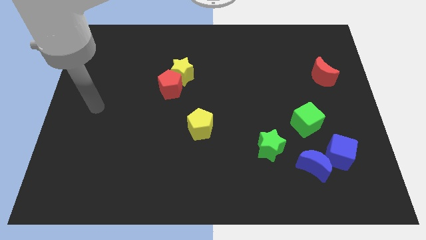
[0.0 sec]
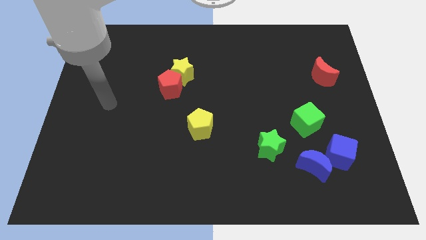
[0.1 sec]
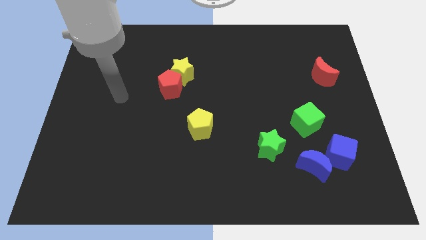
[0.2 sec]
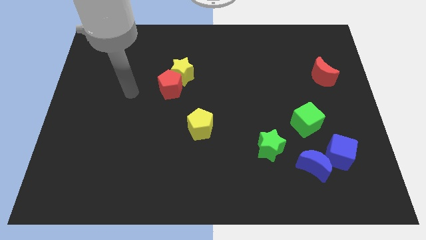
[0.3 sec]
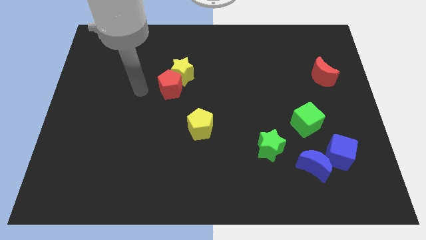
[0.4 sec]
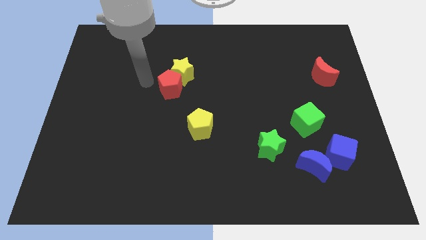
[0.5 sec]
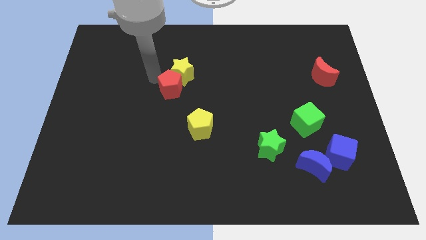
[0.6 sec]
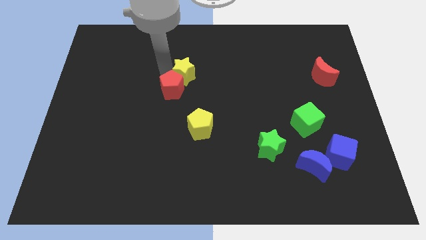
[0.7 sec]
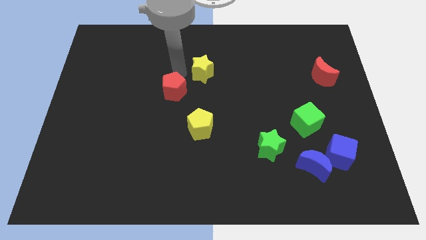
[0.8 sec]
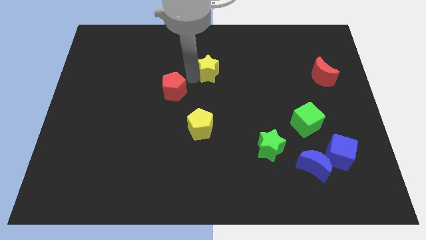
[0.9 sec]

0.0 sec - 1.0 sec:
pull the red pentagon apart from the yellow star

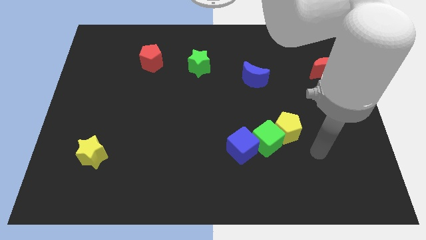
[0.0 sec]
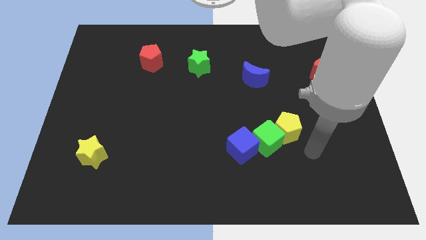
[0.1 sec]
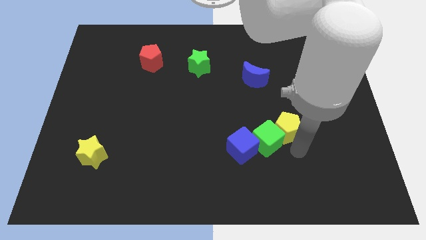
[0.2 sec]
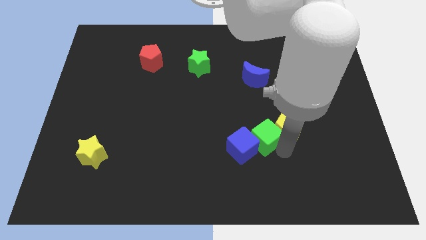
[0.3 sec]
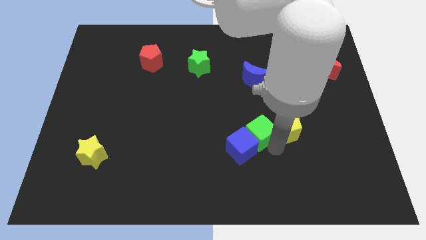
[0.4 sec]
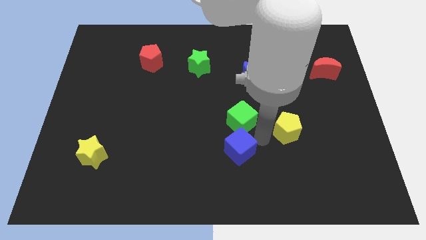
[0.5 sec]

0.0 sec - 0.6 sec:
move the yellow pentagon away from the green cube

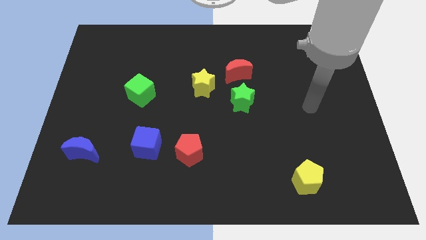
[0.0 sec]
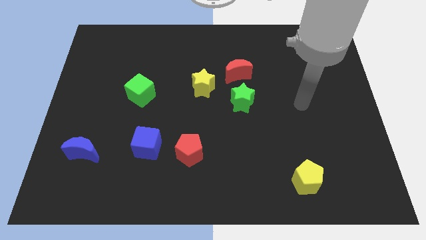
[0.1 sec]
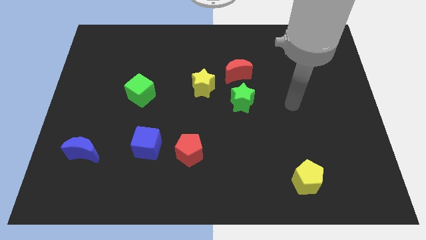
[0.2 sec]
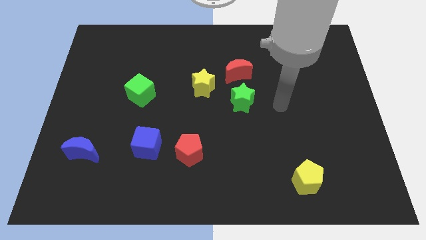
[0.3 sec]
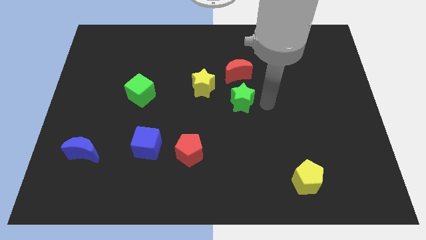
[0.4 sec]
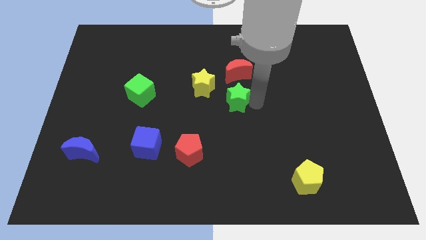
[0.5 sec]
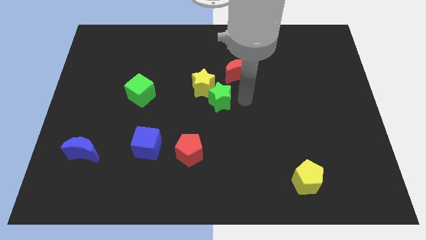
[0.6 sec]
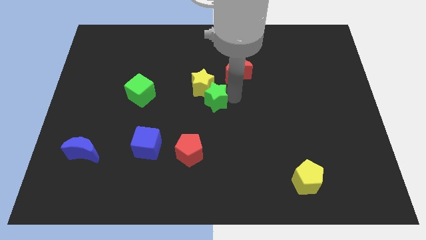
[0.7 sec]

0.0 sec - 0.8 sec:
move the red moon away from the green star and yellow star

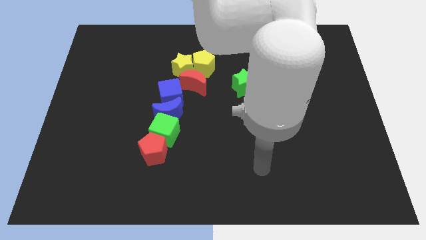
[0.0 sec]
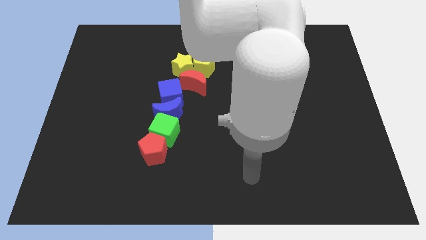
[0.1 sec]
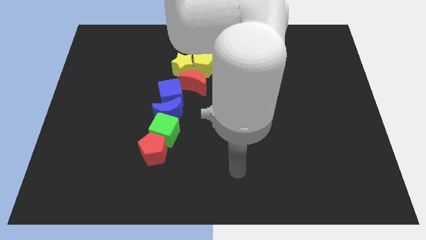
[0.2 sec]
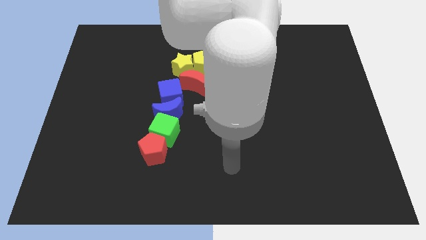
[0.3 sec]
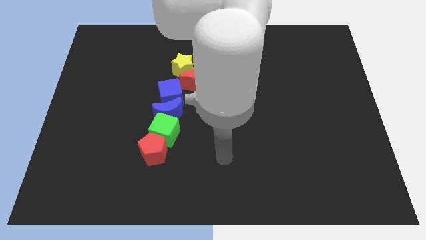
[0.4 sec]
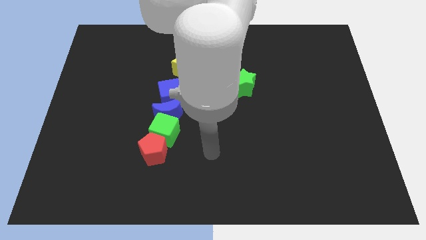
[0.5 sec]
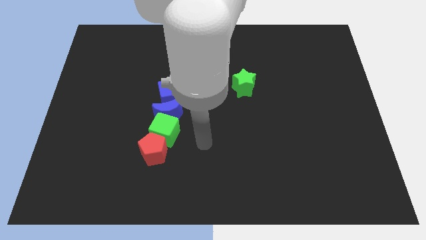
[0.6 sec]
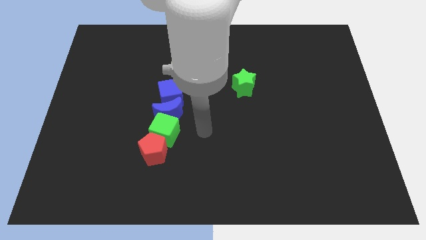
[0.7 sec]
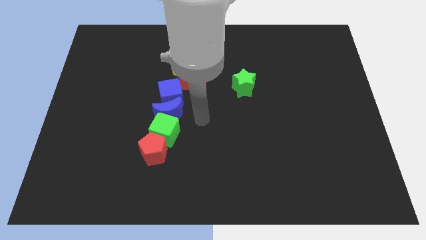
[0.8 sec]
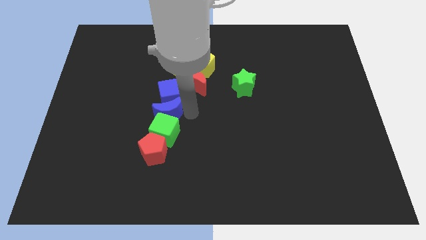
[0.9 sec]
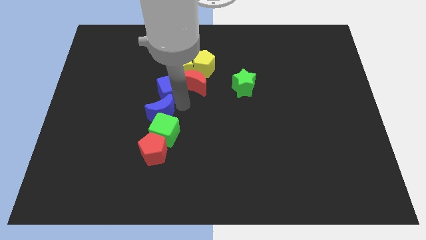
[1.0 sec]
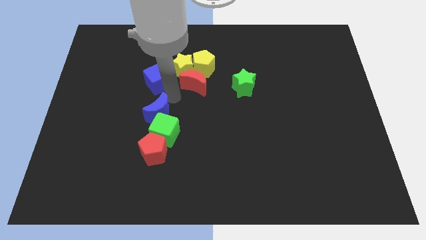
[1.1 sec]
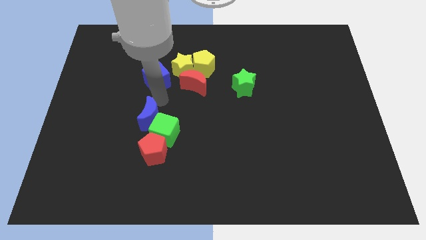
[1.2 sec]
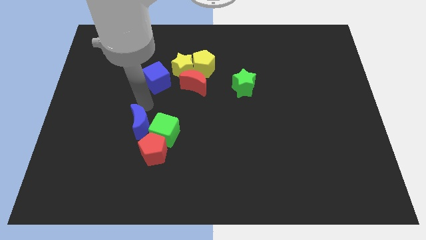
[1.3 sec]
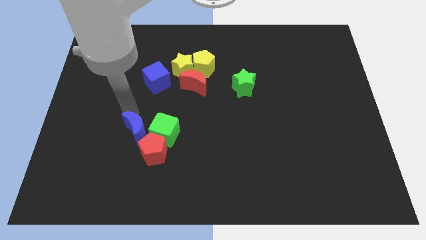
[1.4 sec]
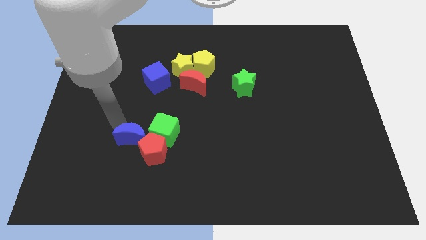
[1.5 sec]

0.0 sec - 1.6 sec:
move the blue moon away from the green cube and blue cube

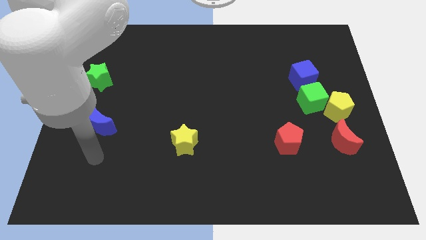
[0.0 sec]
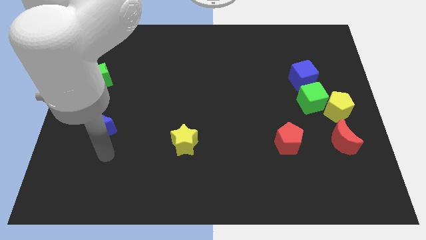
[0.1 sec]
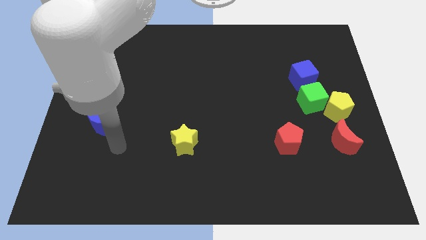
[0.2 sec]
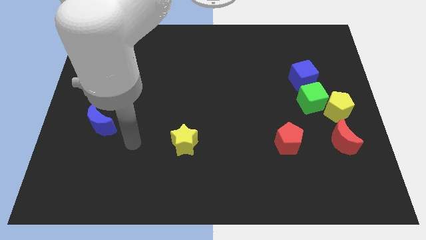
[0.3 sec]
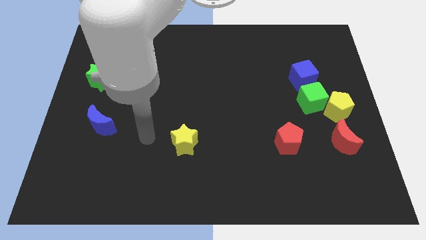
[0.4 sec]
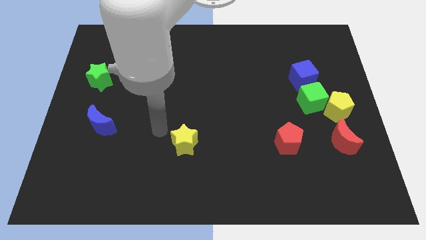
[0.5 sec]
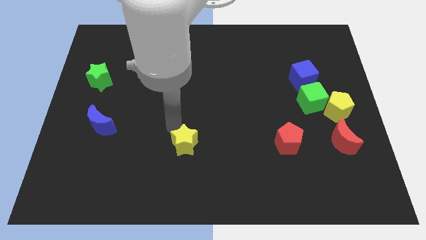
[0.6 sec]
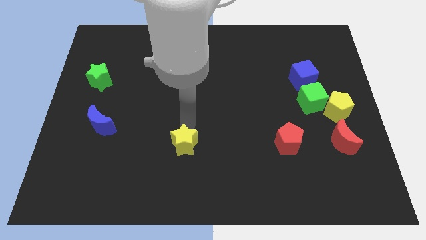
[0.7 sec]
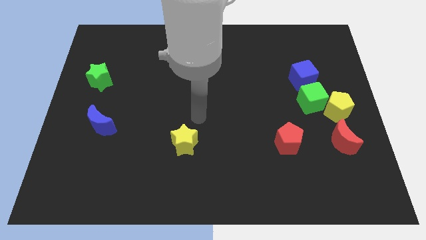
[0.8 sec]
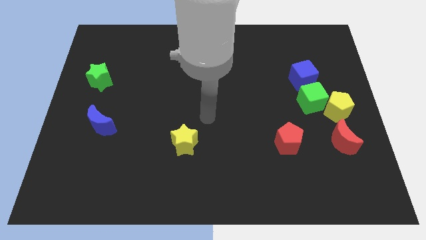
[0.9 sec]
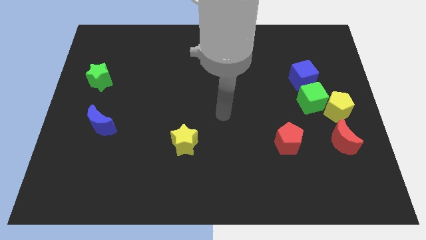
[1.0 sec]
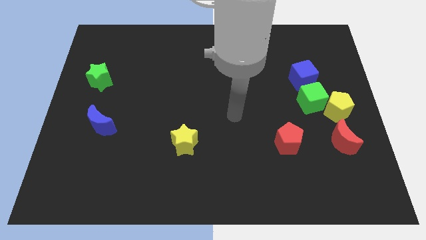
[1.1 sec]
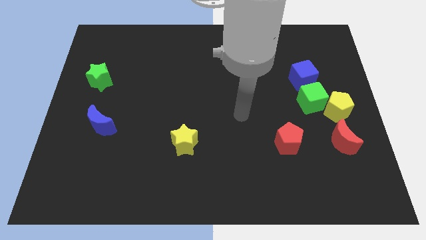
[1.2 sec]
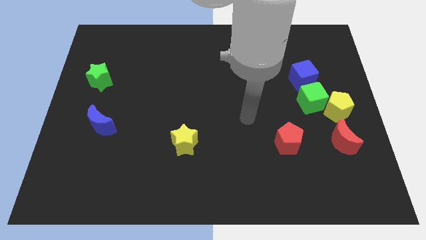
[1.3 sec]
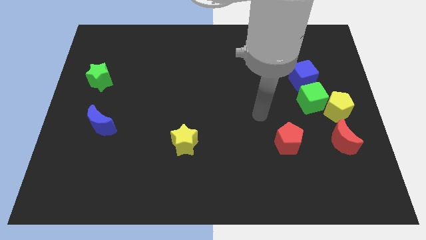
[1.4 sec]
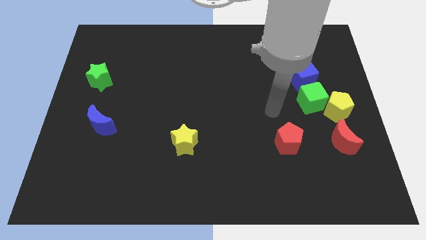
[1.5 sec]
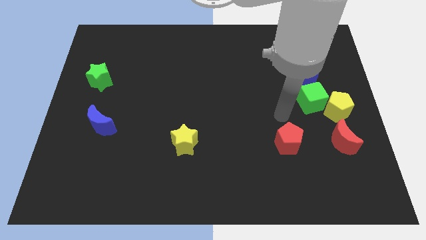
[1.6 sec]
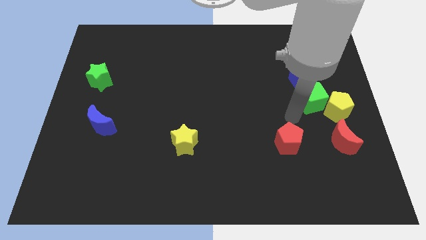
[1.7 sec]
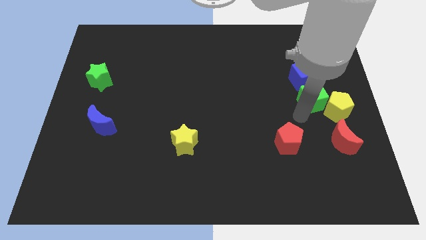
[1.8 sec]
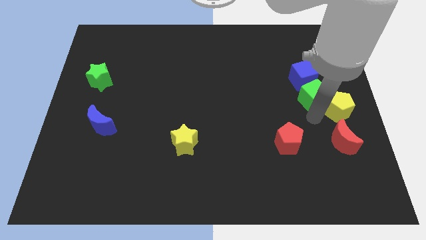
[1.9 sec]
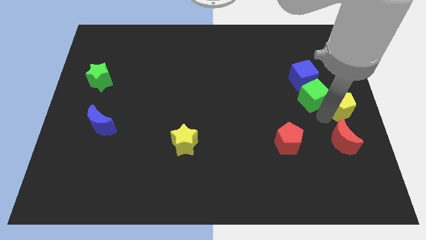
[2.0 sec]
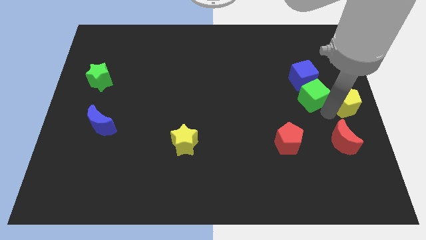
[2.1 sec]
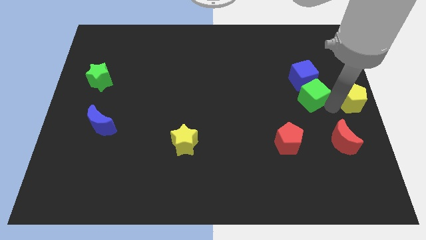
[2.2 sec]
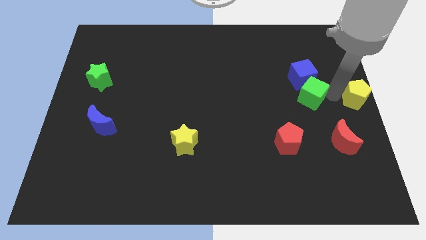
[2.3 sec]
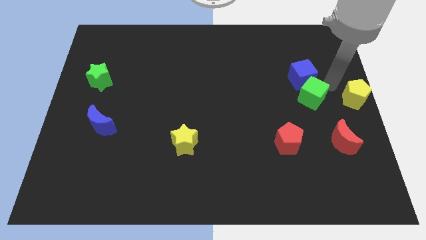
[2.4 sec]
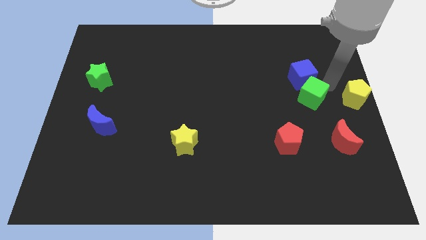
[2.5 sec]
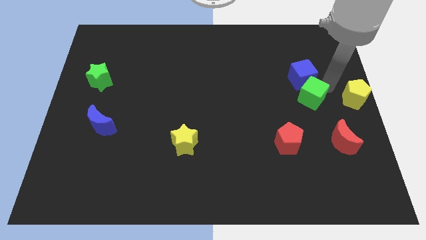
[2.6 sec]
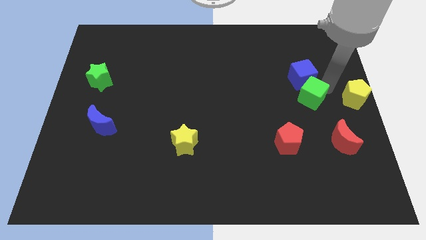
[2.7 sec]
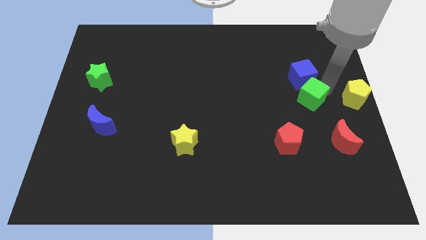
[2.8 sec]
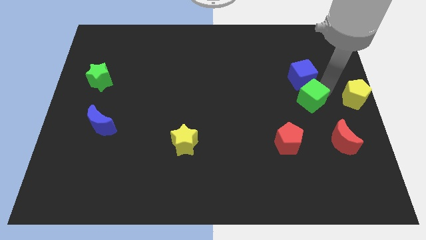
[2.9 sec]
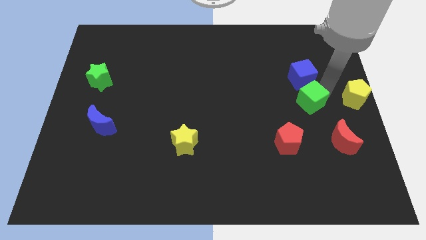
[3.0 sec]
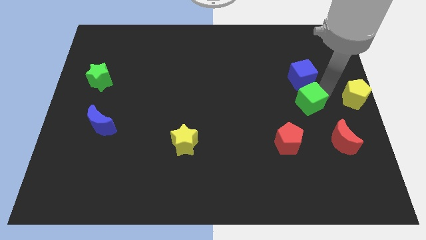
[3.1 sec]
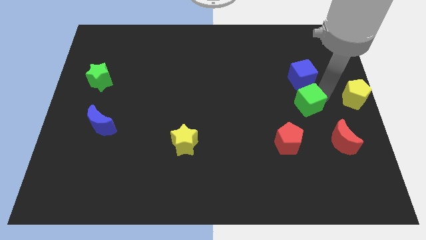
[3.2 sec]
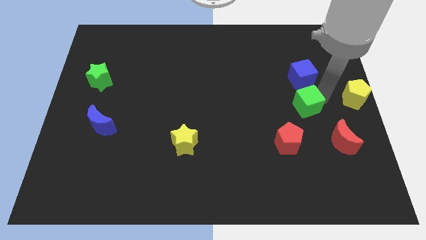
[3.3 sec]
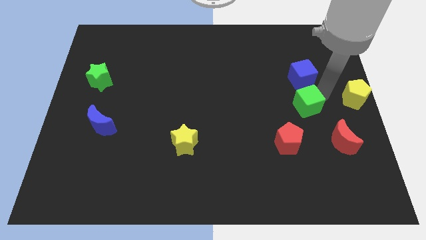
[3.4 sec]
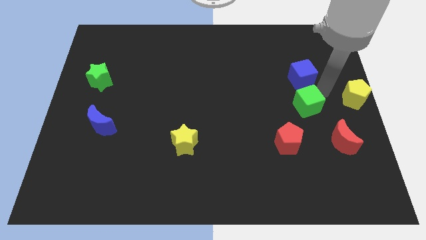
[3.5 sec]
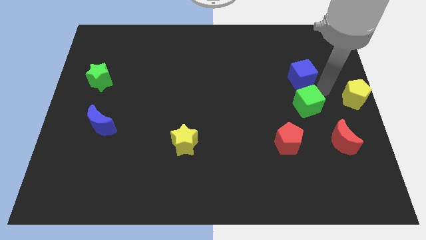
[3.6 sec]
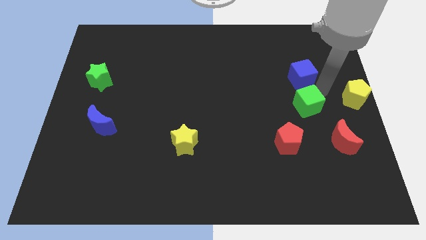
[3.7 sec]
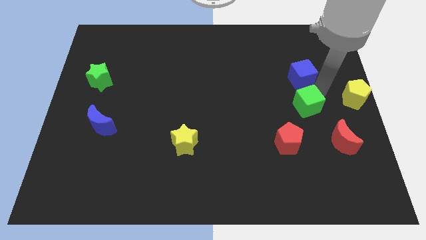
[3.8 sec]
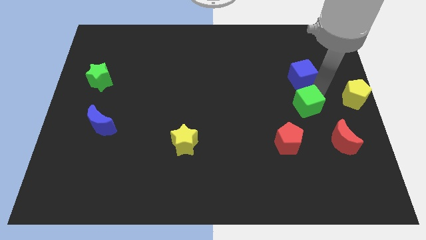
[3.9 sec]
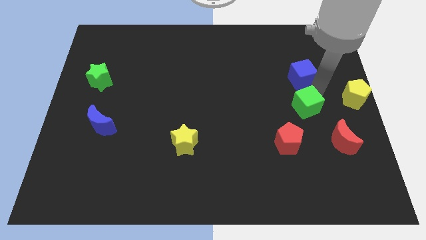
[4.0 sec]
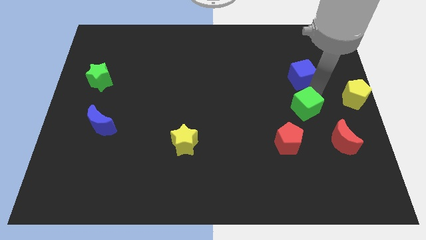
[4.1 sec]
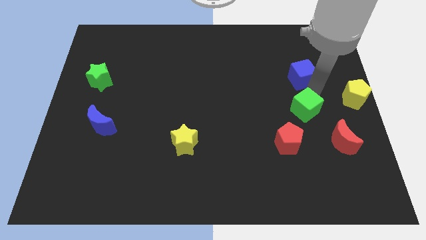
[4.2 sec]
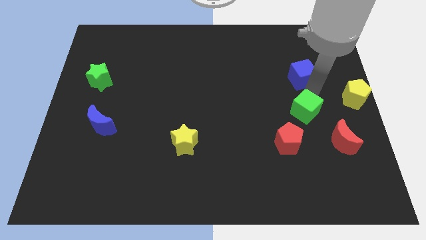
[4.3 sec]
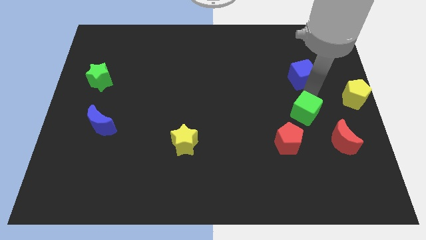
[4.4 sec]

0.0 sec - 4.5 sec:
move the green cube away from the yellow pentagon and blue cube

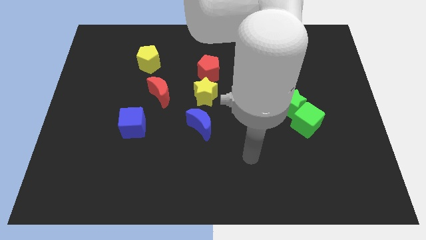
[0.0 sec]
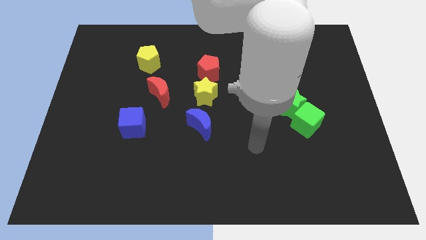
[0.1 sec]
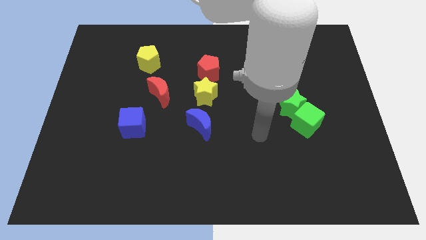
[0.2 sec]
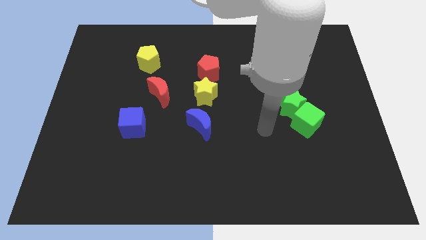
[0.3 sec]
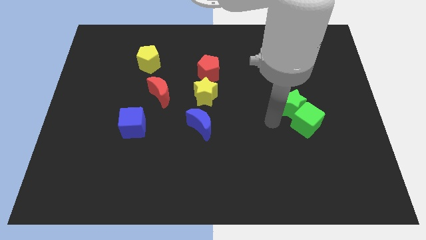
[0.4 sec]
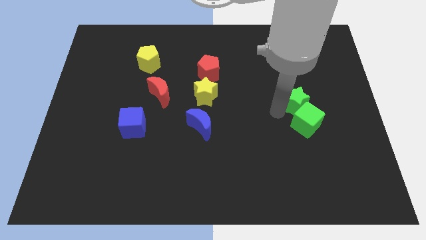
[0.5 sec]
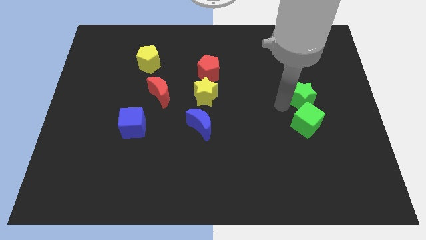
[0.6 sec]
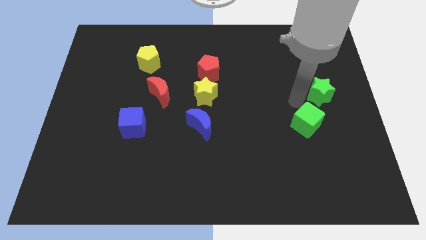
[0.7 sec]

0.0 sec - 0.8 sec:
separate the green cube from the green star
